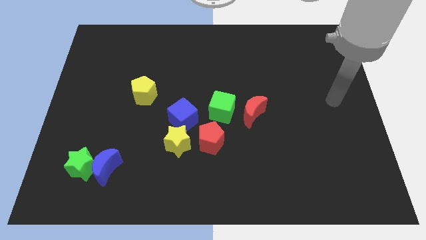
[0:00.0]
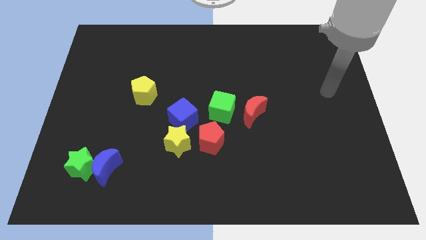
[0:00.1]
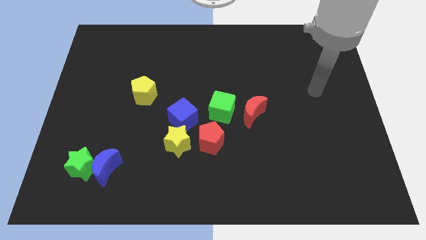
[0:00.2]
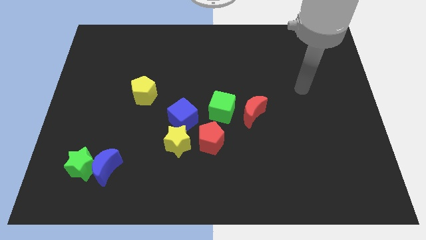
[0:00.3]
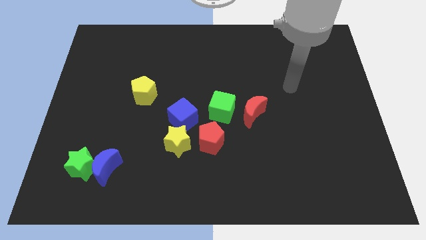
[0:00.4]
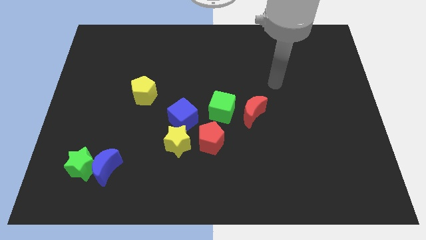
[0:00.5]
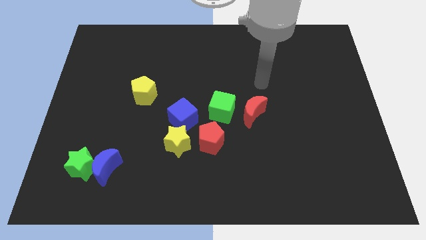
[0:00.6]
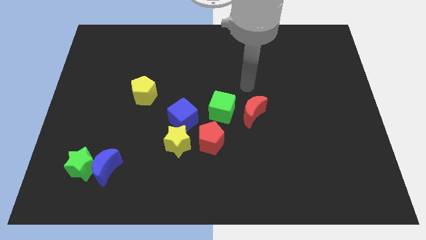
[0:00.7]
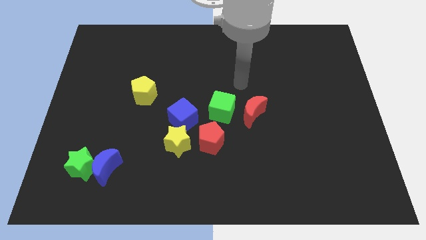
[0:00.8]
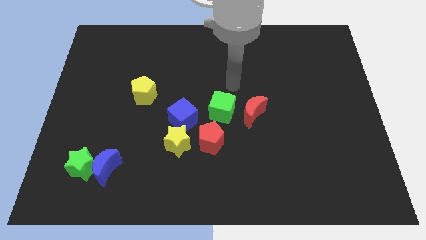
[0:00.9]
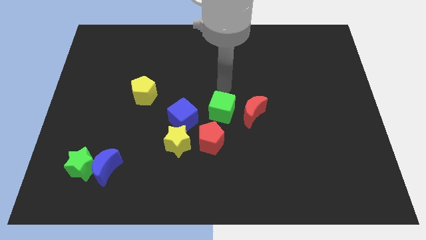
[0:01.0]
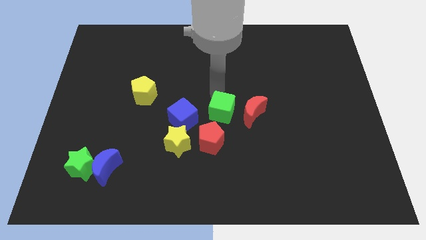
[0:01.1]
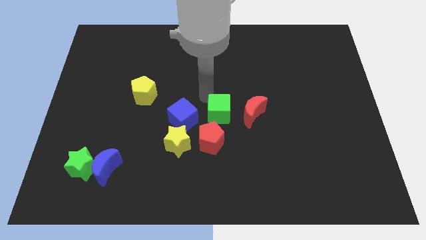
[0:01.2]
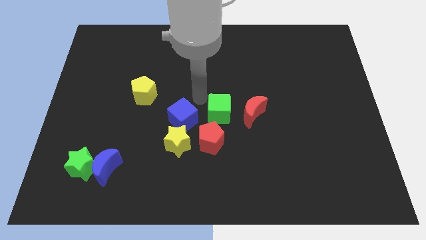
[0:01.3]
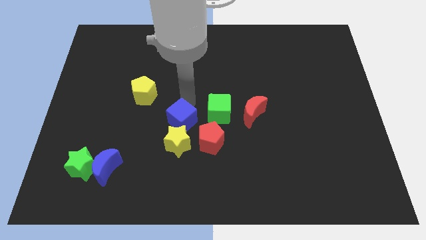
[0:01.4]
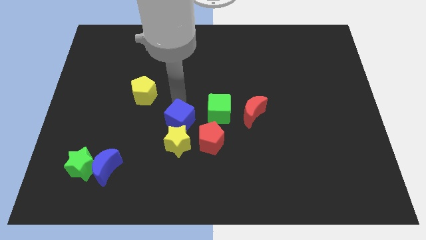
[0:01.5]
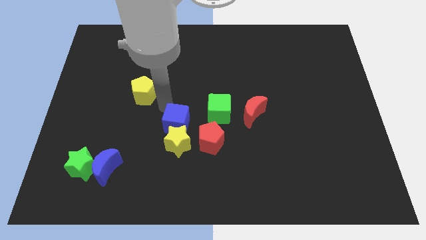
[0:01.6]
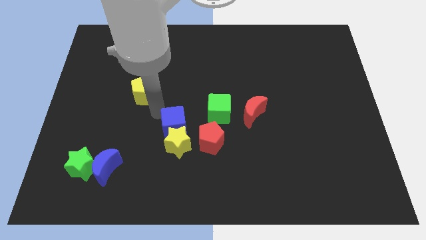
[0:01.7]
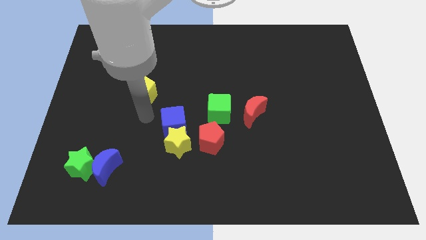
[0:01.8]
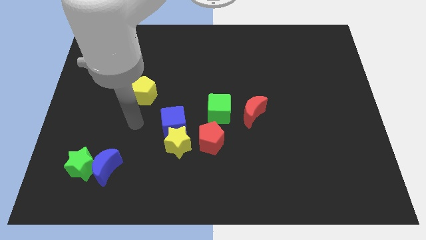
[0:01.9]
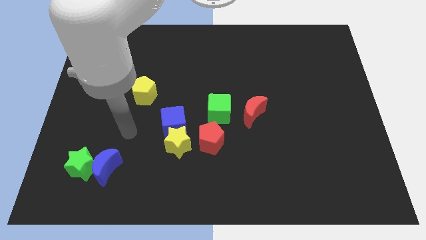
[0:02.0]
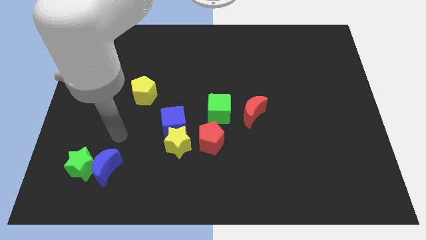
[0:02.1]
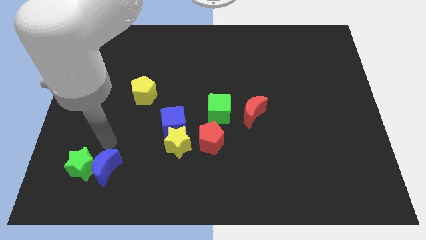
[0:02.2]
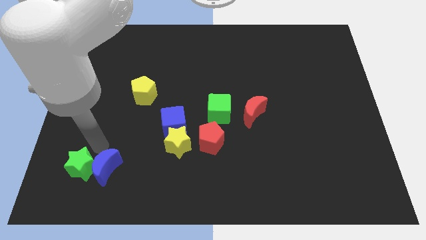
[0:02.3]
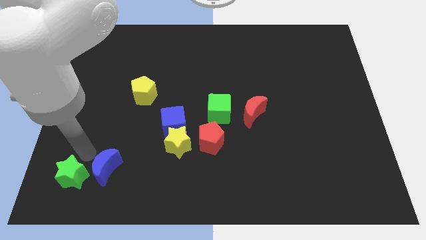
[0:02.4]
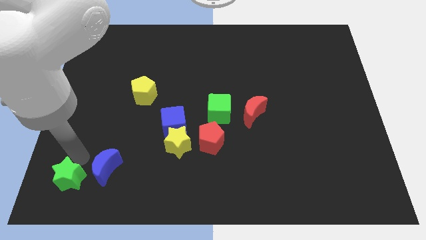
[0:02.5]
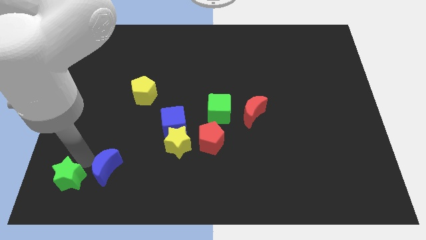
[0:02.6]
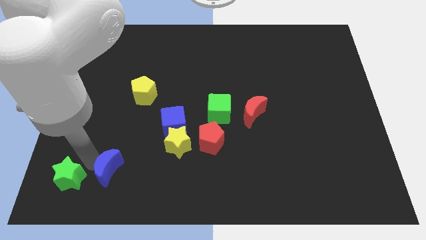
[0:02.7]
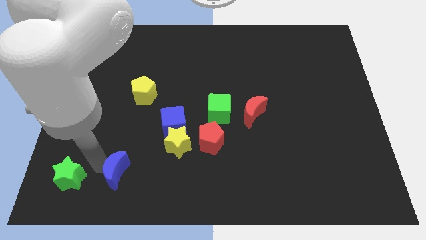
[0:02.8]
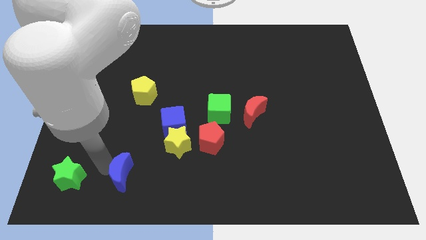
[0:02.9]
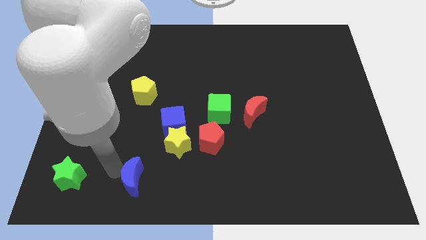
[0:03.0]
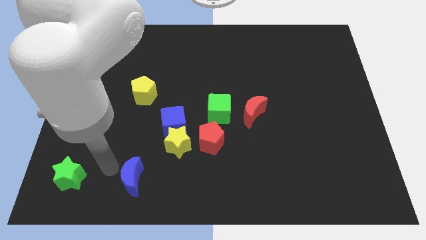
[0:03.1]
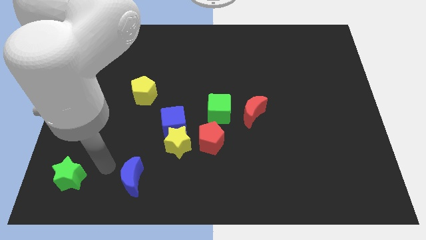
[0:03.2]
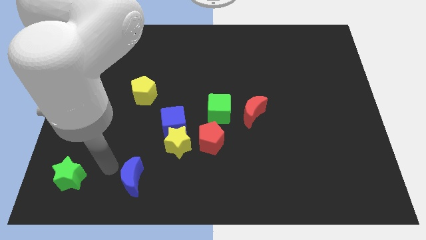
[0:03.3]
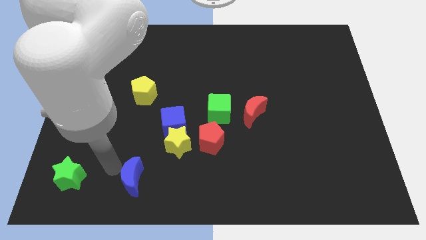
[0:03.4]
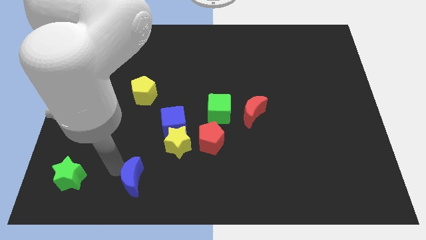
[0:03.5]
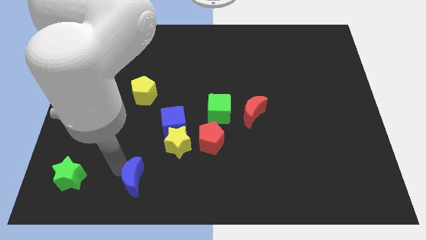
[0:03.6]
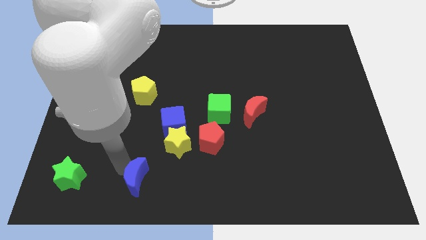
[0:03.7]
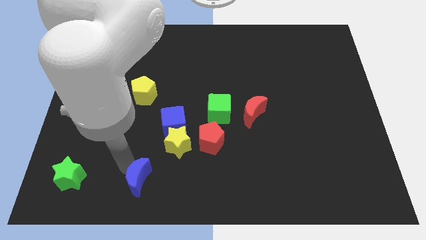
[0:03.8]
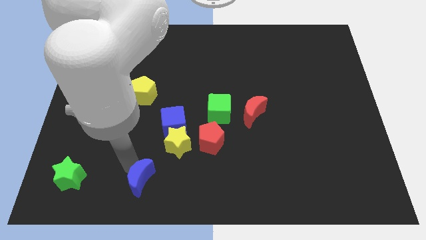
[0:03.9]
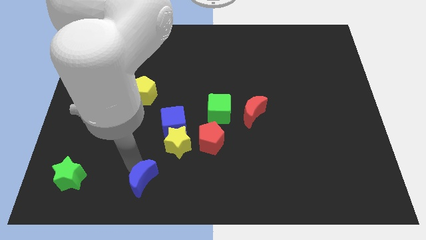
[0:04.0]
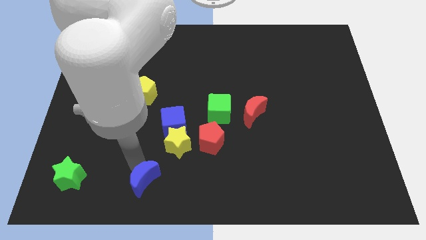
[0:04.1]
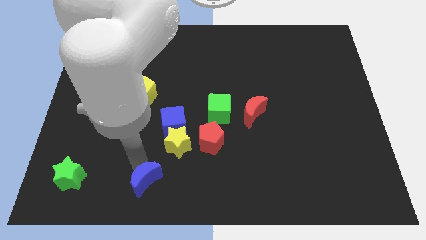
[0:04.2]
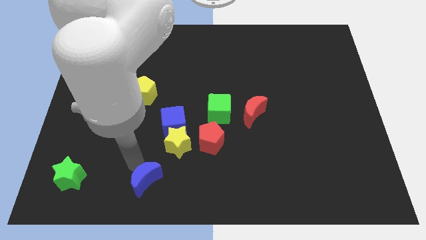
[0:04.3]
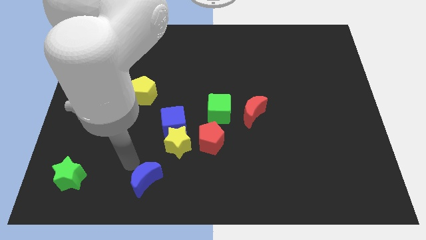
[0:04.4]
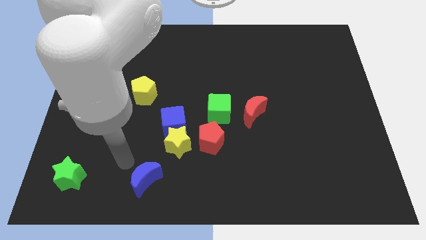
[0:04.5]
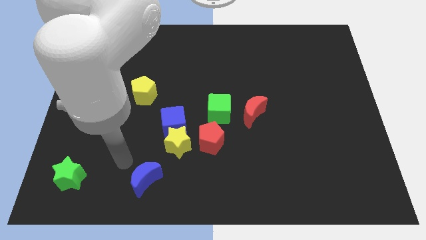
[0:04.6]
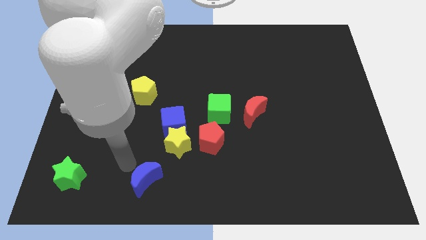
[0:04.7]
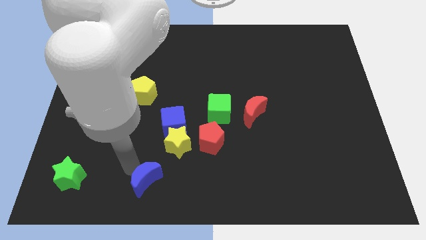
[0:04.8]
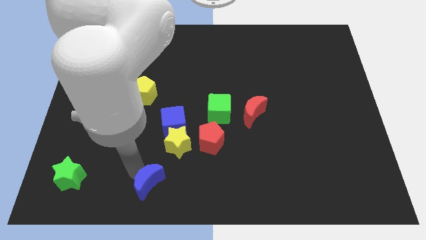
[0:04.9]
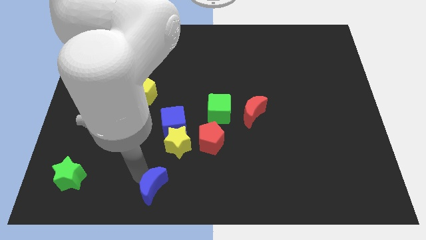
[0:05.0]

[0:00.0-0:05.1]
put the blue moon to the bottom

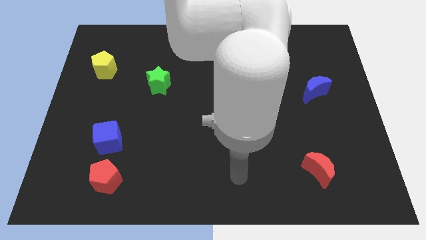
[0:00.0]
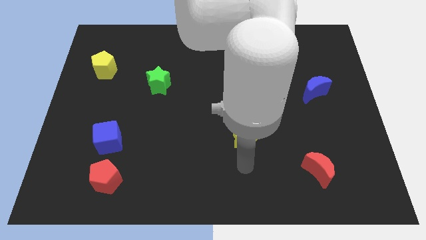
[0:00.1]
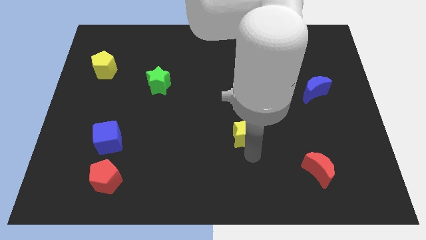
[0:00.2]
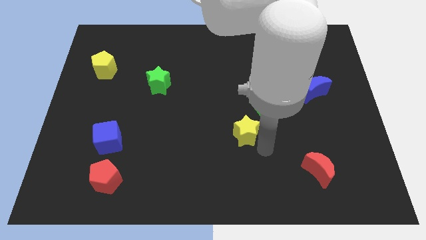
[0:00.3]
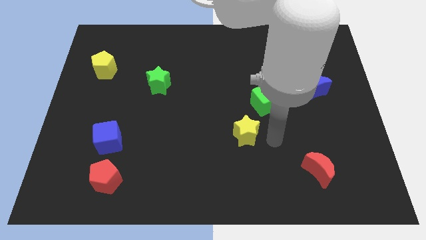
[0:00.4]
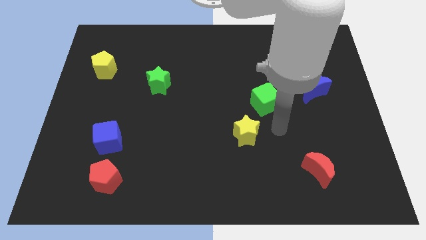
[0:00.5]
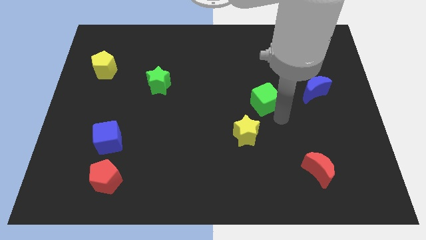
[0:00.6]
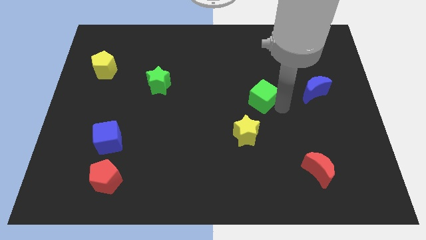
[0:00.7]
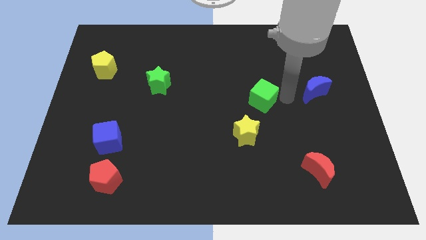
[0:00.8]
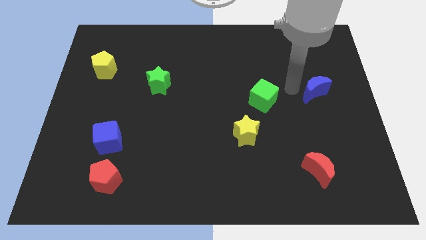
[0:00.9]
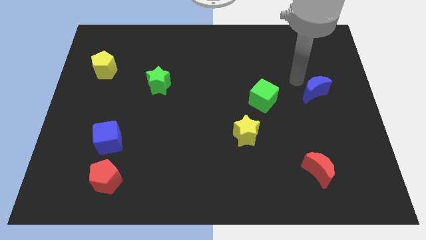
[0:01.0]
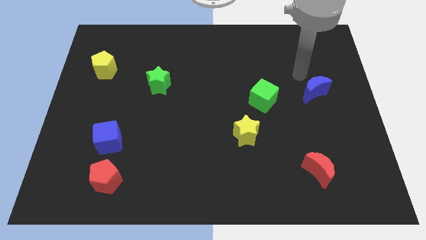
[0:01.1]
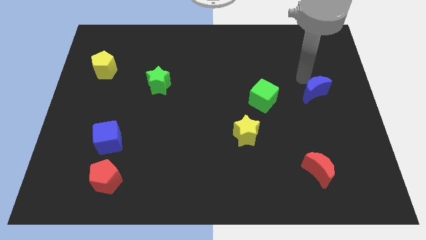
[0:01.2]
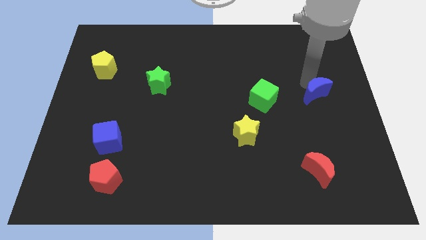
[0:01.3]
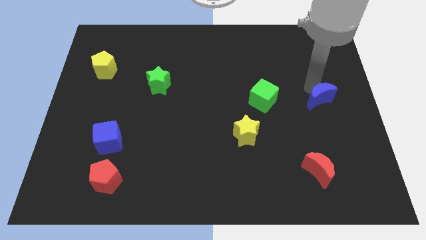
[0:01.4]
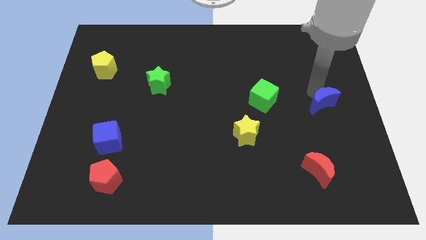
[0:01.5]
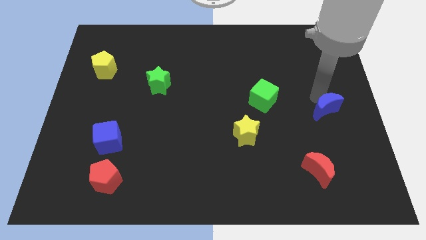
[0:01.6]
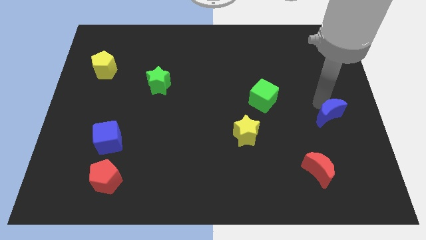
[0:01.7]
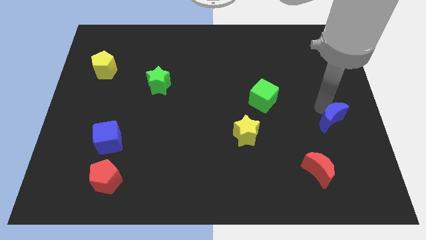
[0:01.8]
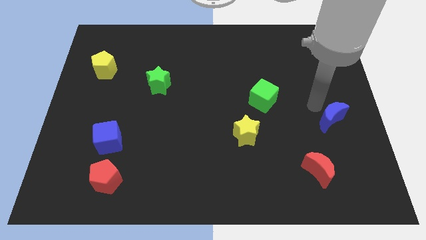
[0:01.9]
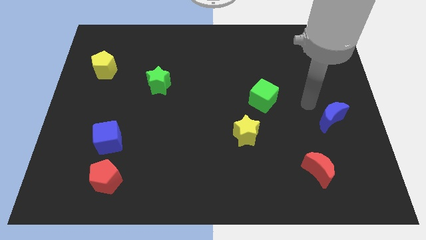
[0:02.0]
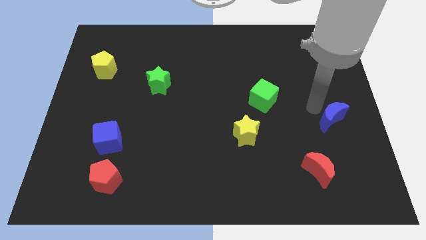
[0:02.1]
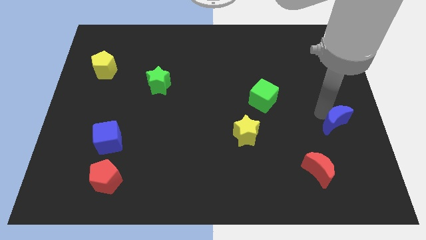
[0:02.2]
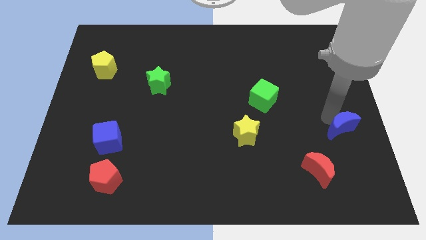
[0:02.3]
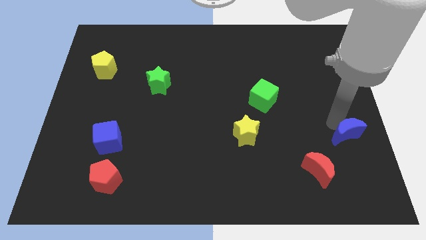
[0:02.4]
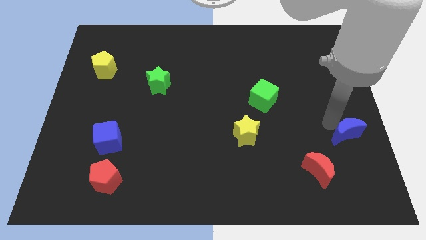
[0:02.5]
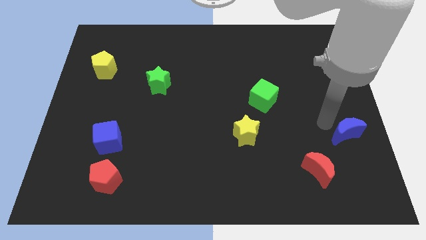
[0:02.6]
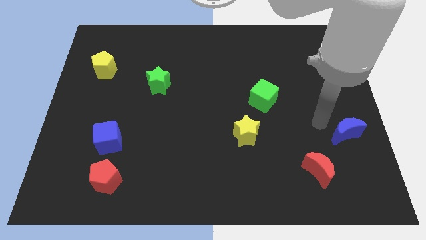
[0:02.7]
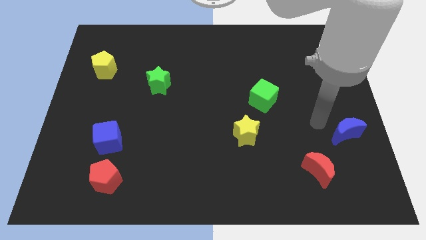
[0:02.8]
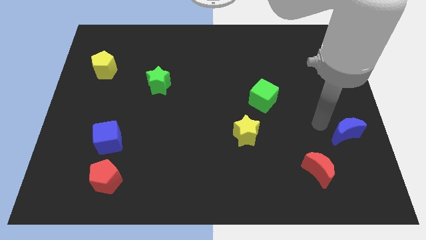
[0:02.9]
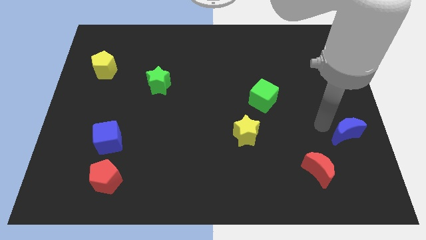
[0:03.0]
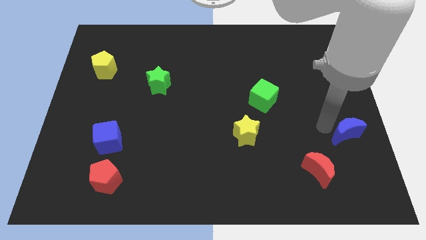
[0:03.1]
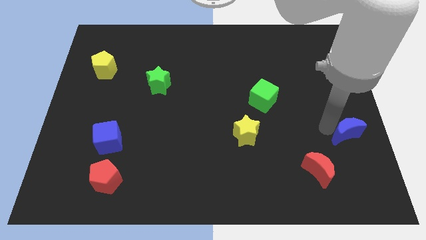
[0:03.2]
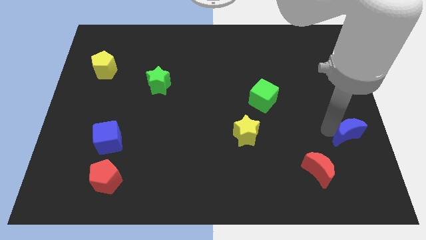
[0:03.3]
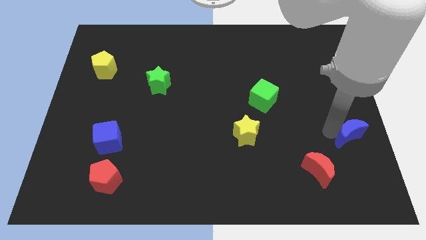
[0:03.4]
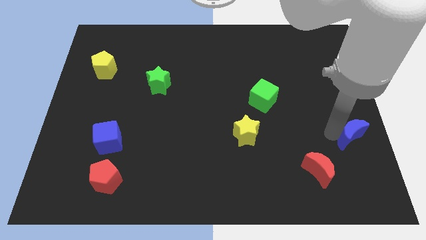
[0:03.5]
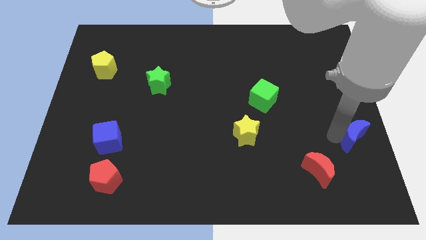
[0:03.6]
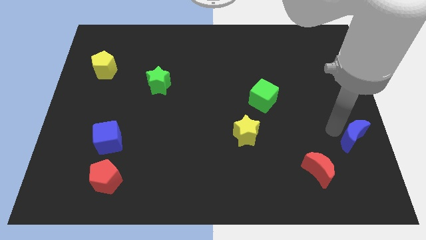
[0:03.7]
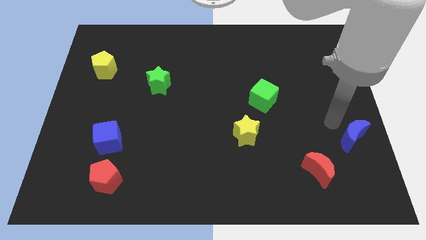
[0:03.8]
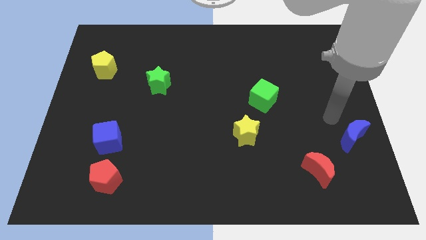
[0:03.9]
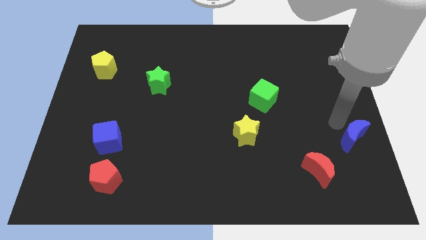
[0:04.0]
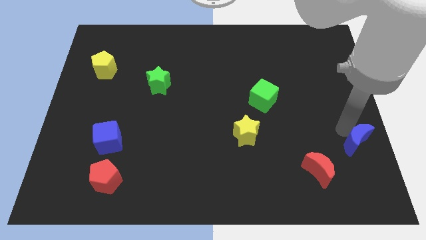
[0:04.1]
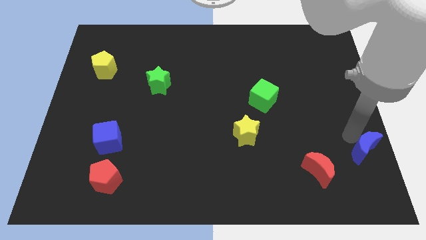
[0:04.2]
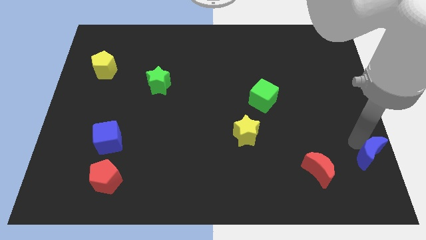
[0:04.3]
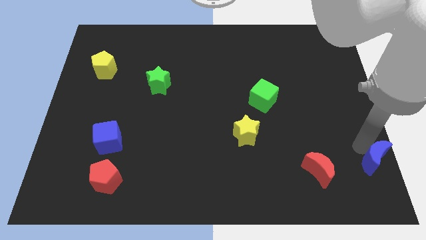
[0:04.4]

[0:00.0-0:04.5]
push the blue moon to the bottom right
